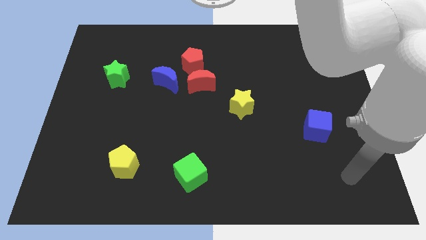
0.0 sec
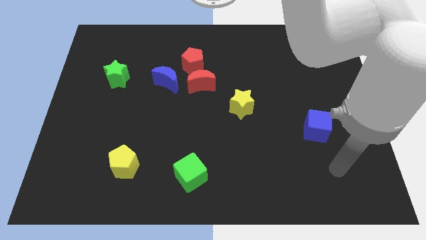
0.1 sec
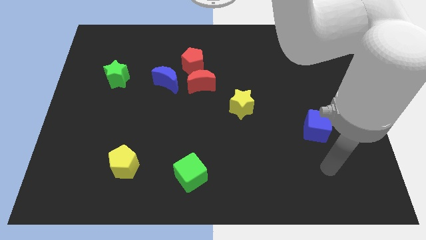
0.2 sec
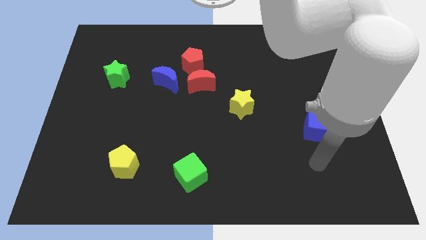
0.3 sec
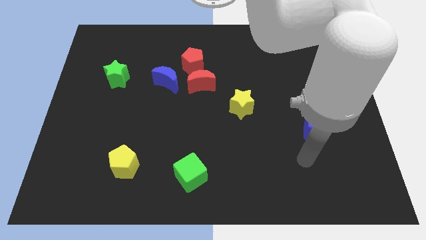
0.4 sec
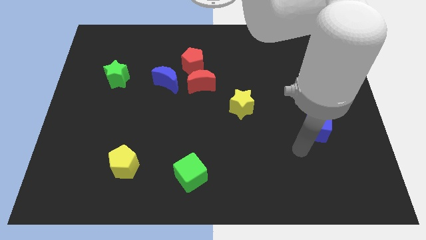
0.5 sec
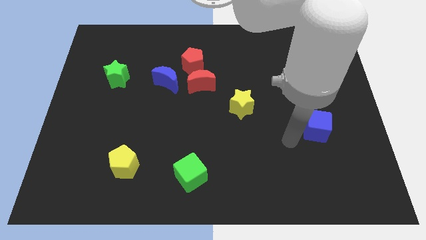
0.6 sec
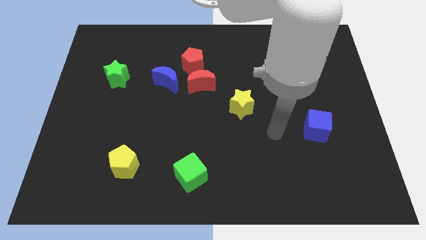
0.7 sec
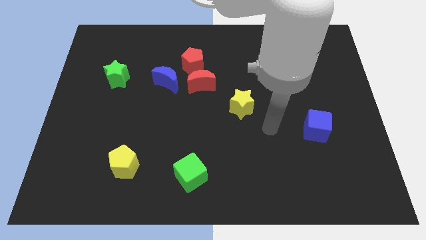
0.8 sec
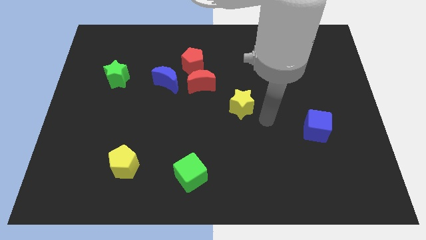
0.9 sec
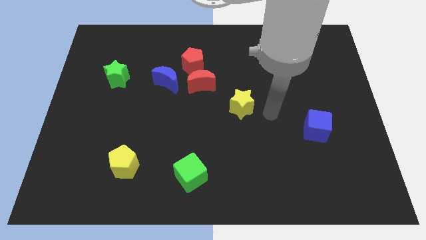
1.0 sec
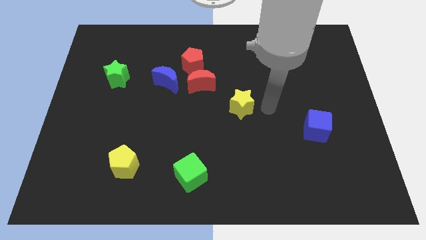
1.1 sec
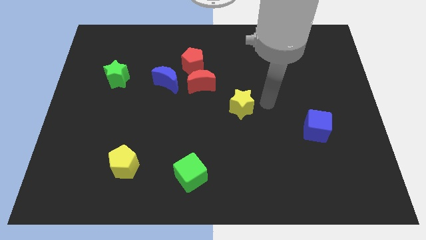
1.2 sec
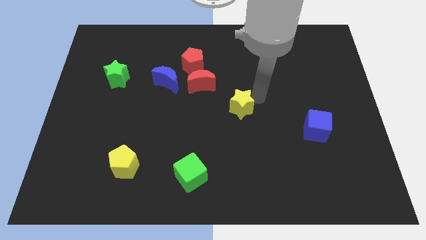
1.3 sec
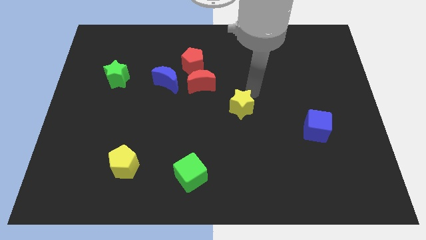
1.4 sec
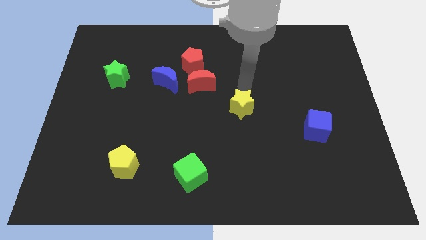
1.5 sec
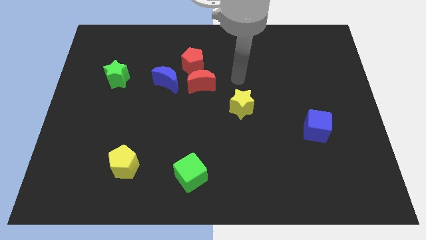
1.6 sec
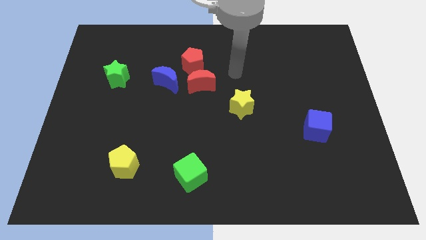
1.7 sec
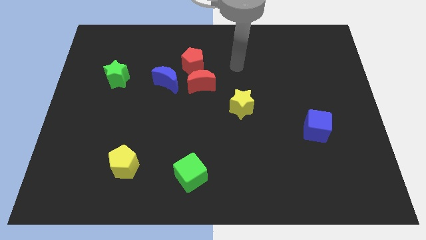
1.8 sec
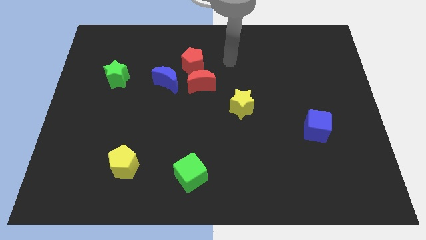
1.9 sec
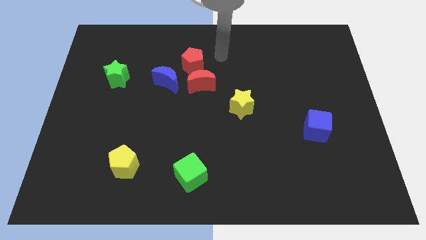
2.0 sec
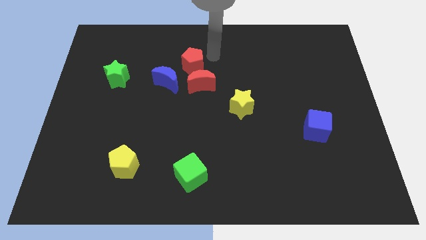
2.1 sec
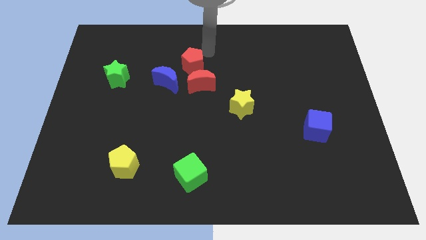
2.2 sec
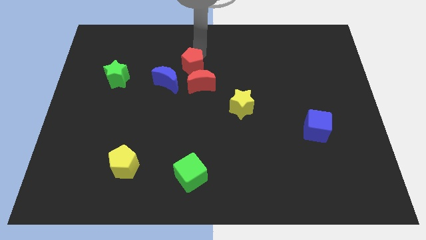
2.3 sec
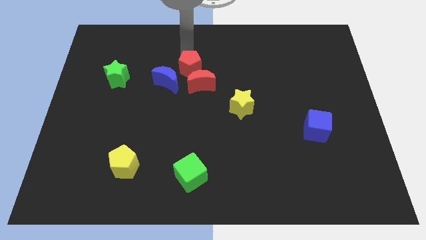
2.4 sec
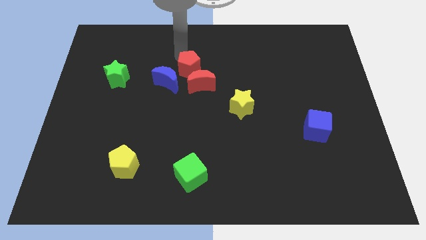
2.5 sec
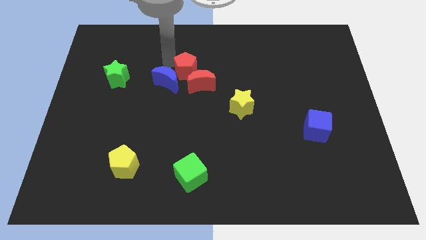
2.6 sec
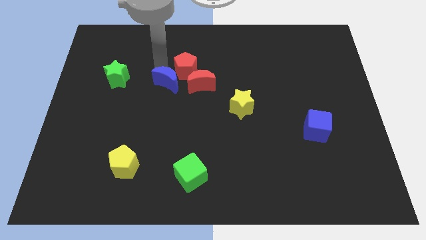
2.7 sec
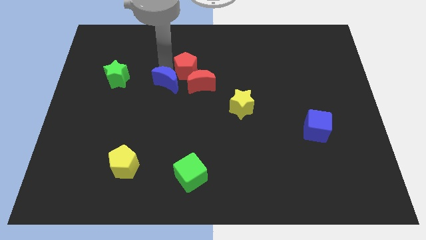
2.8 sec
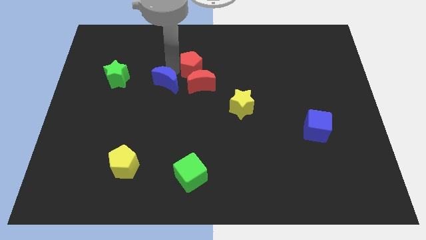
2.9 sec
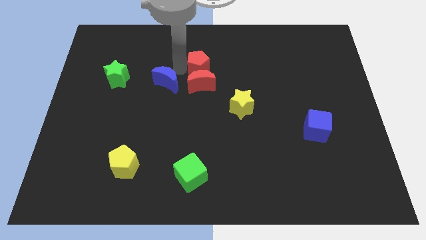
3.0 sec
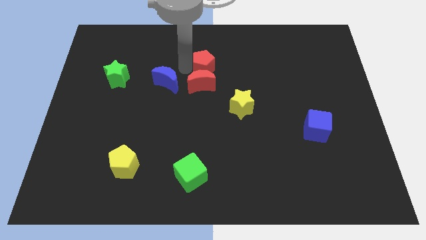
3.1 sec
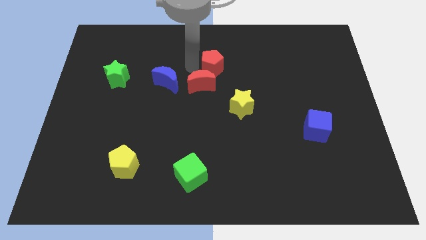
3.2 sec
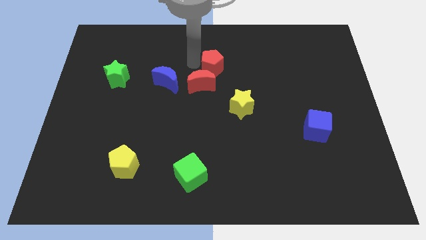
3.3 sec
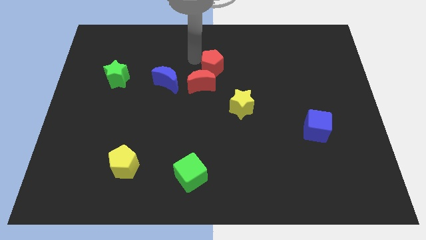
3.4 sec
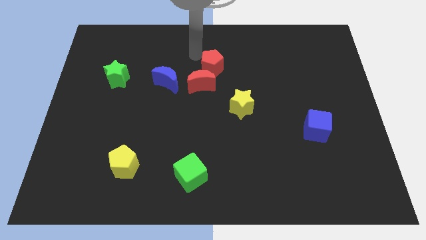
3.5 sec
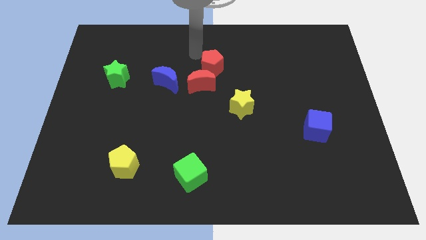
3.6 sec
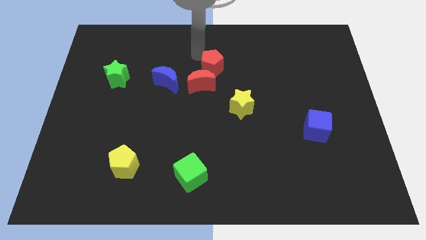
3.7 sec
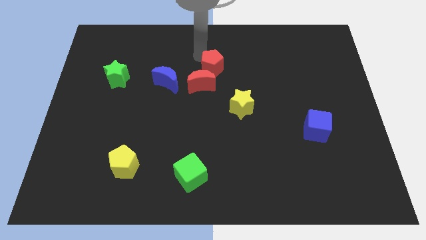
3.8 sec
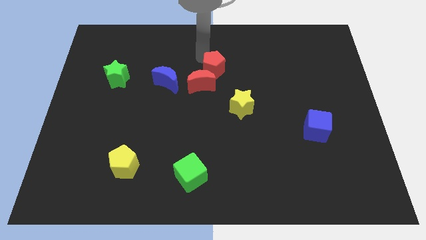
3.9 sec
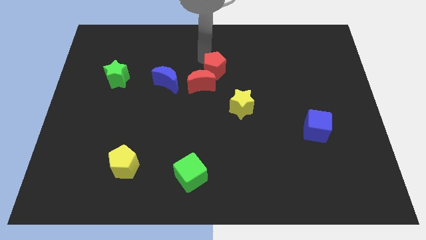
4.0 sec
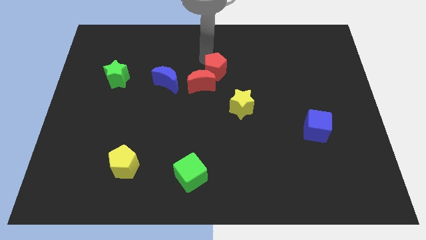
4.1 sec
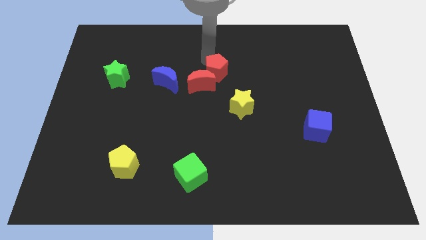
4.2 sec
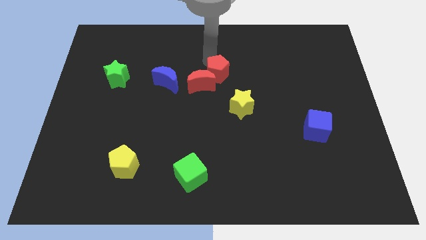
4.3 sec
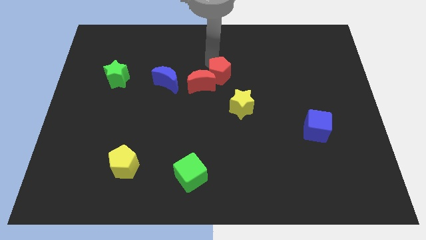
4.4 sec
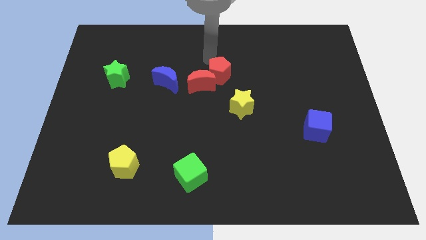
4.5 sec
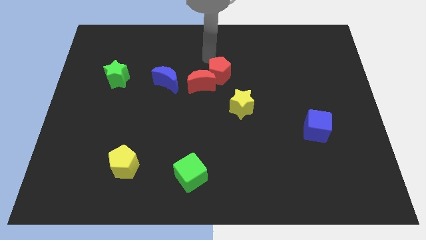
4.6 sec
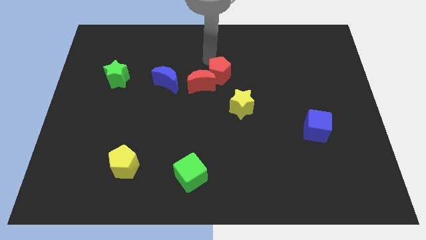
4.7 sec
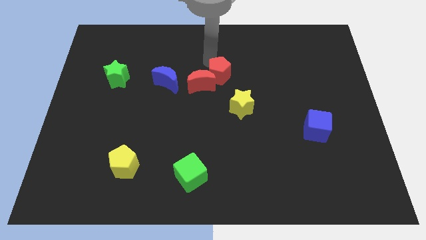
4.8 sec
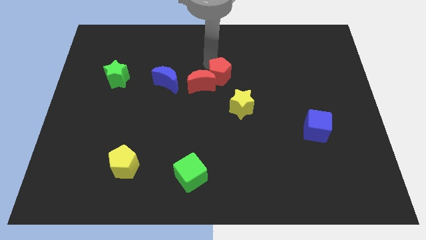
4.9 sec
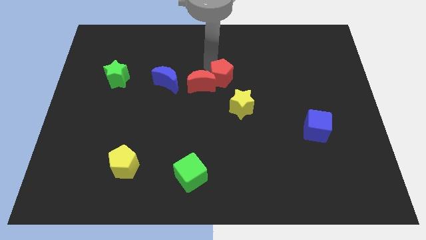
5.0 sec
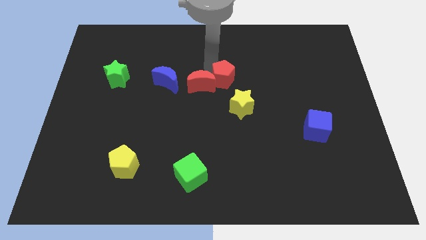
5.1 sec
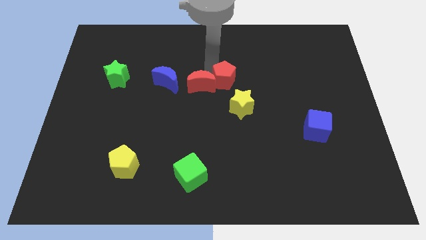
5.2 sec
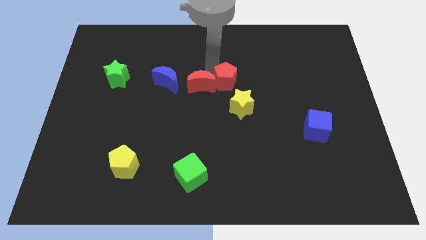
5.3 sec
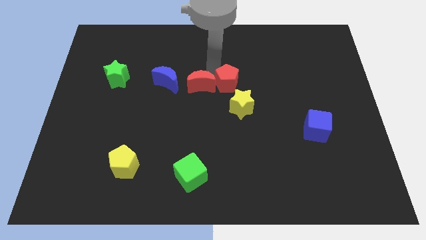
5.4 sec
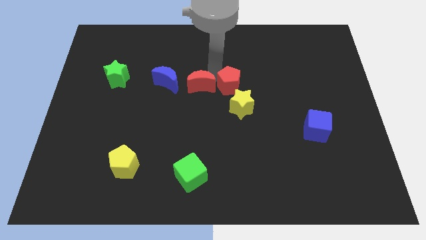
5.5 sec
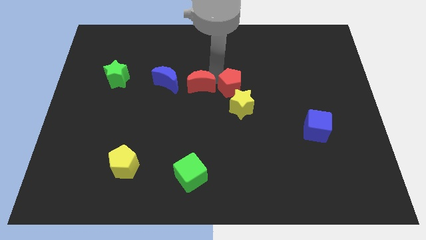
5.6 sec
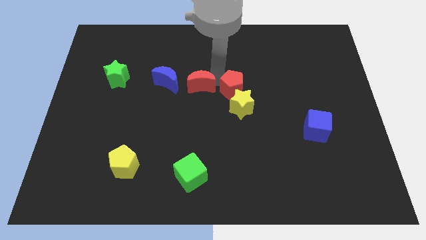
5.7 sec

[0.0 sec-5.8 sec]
put the red pentagon to the yellow star

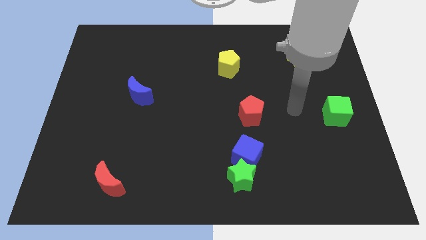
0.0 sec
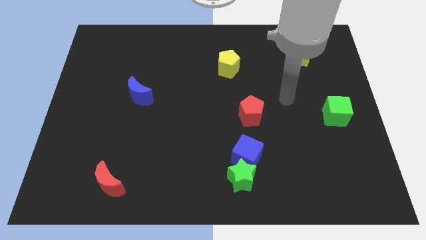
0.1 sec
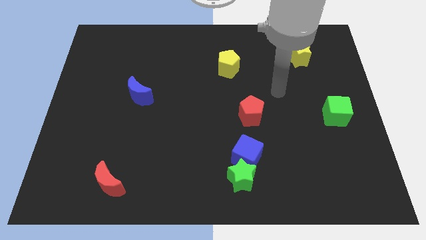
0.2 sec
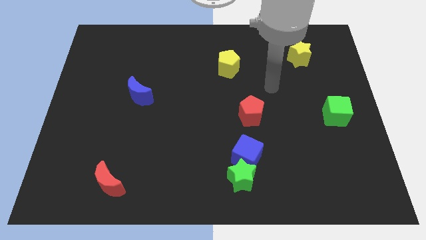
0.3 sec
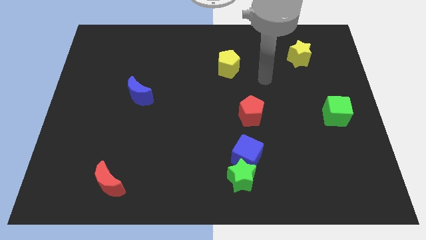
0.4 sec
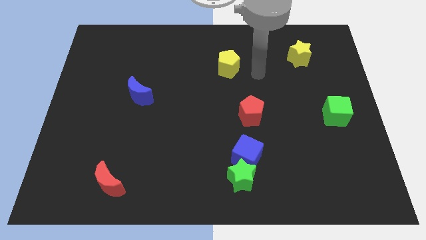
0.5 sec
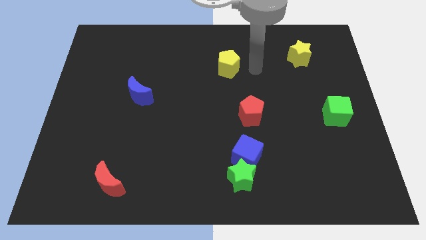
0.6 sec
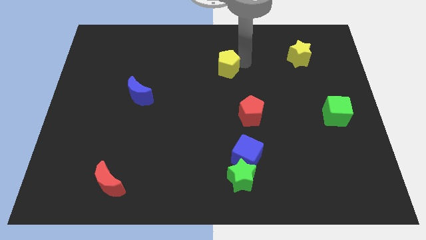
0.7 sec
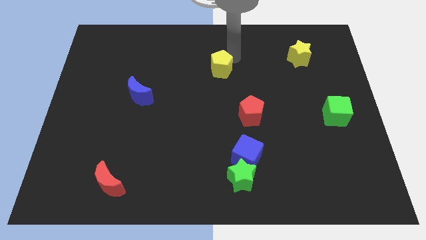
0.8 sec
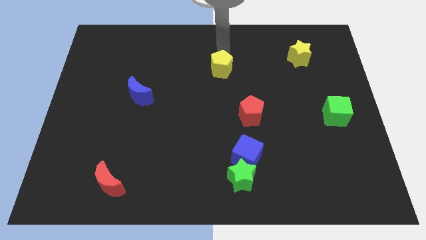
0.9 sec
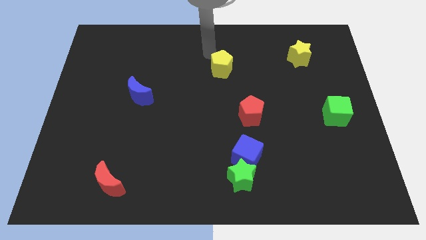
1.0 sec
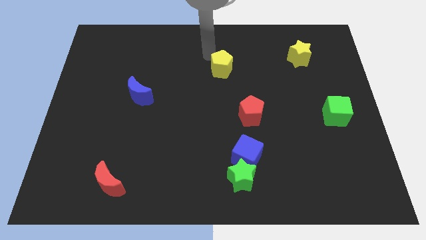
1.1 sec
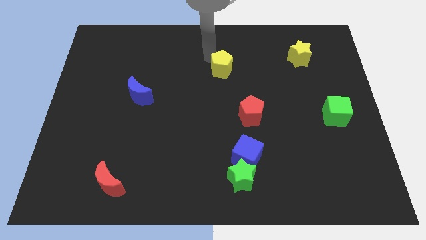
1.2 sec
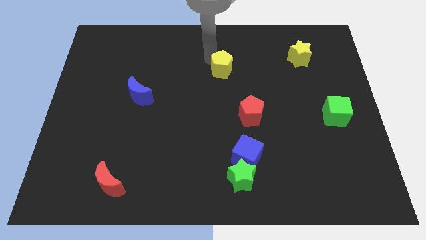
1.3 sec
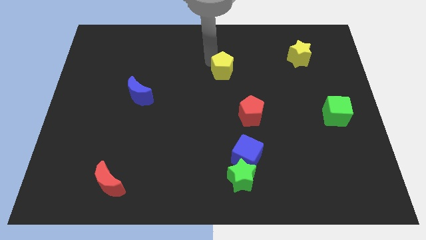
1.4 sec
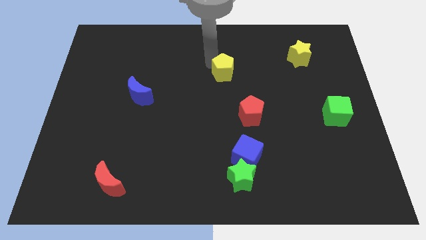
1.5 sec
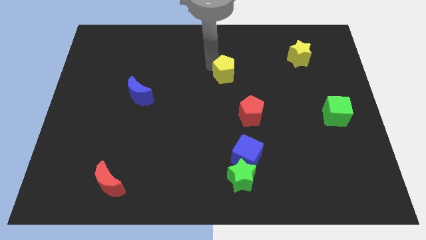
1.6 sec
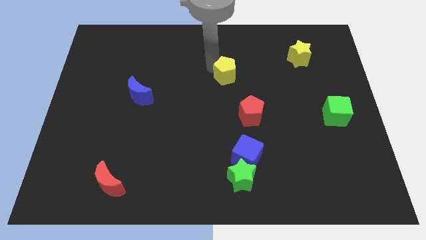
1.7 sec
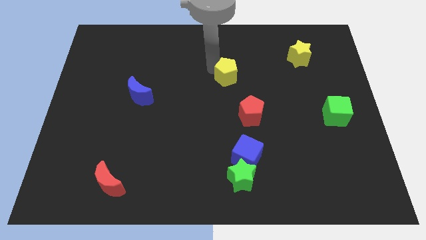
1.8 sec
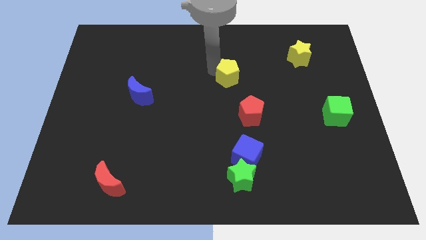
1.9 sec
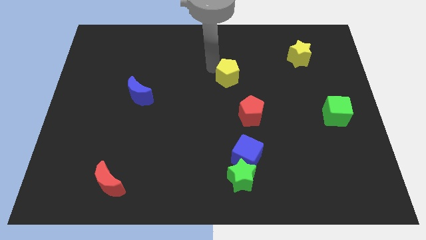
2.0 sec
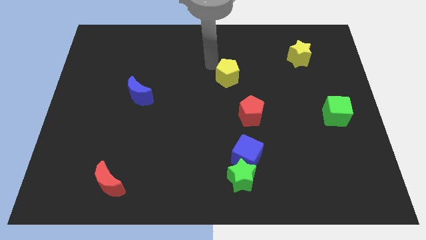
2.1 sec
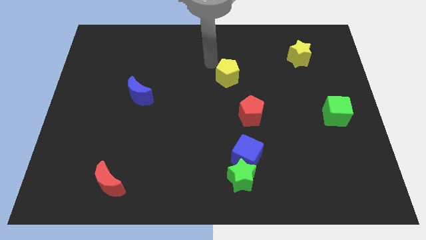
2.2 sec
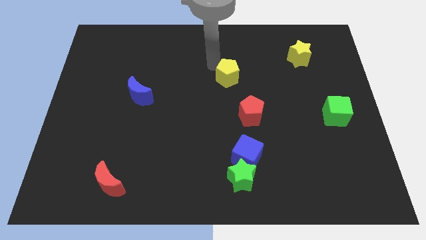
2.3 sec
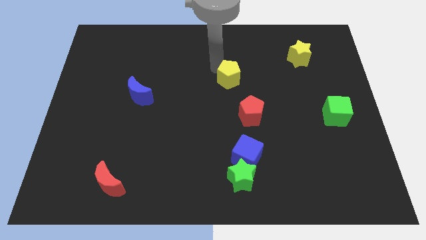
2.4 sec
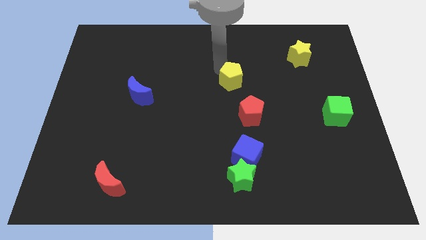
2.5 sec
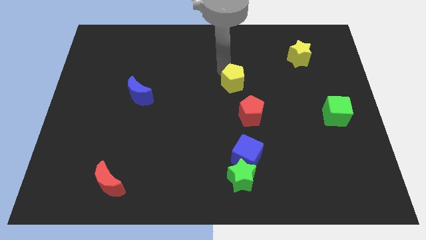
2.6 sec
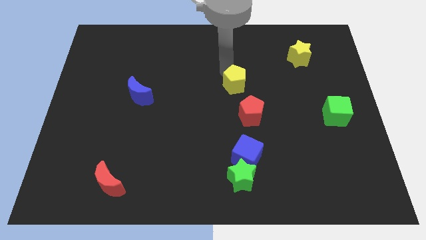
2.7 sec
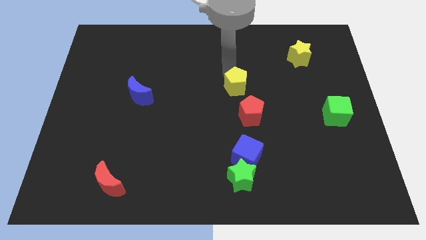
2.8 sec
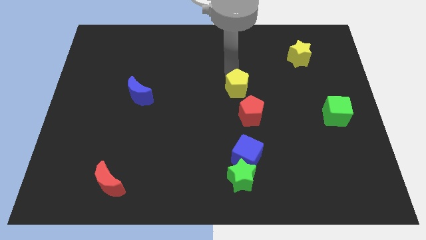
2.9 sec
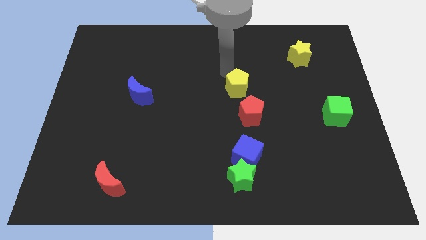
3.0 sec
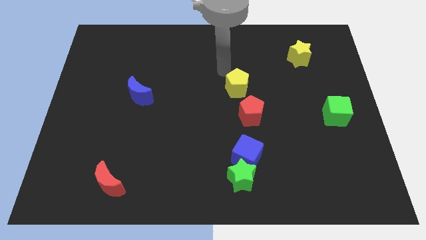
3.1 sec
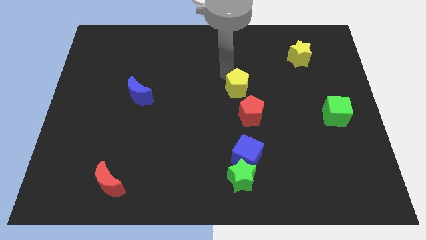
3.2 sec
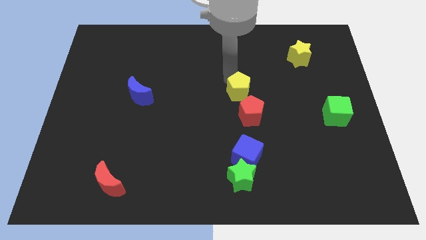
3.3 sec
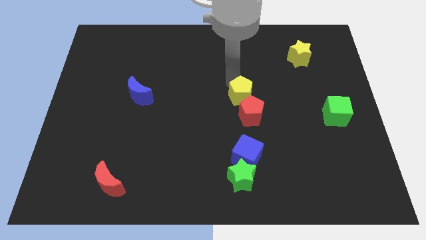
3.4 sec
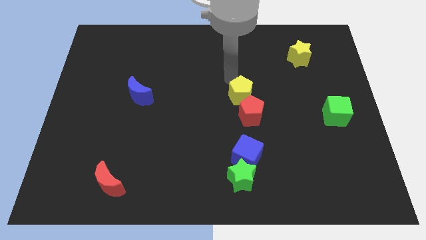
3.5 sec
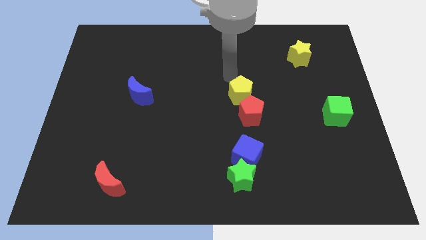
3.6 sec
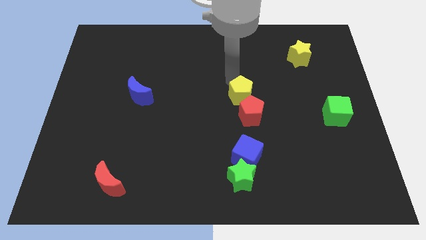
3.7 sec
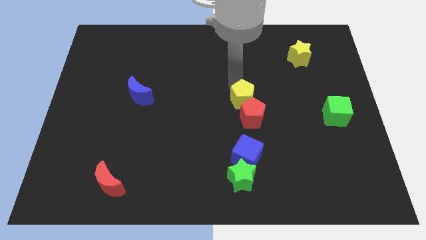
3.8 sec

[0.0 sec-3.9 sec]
slide the yellow pentagon towards the red pentagon
